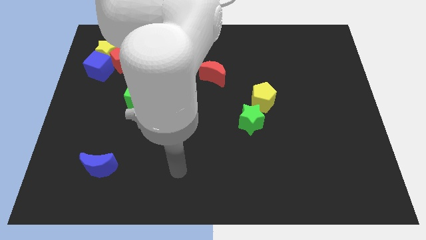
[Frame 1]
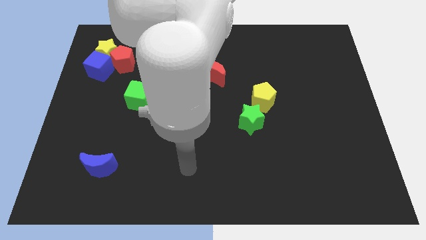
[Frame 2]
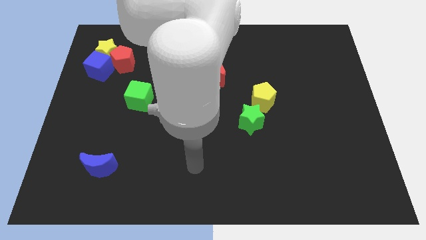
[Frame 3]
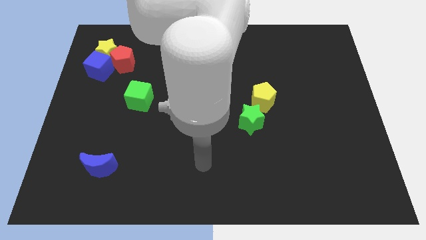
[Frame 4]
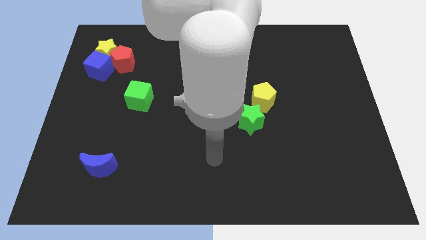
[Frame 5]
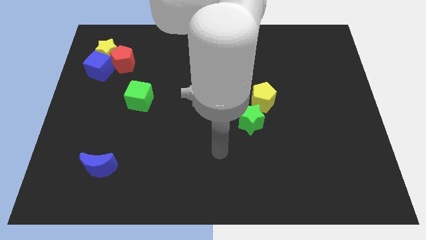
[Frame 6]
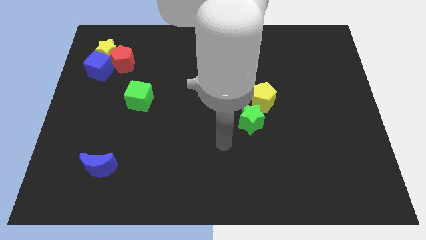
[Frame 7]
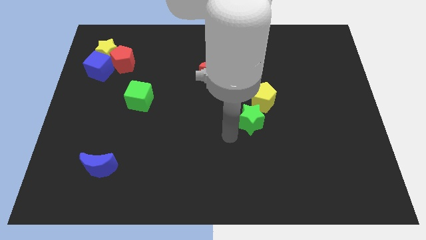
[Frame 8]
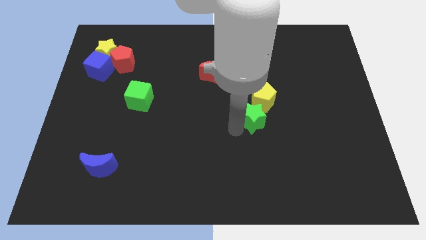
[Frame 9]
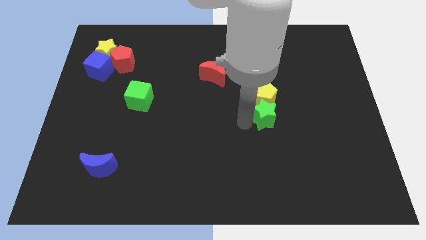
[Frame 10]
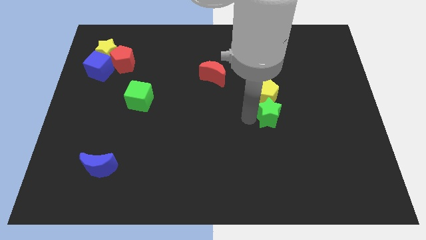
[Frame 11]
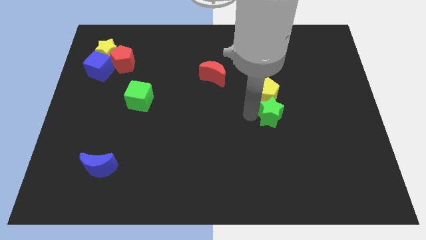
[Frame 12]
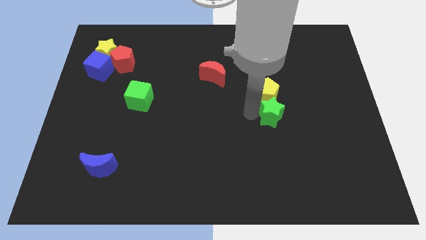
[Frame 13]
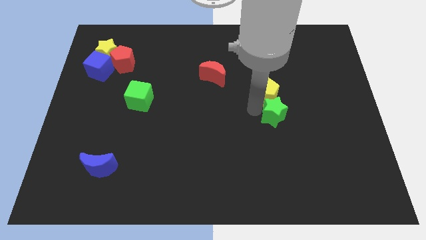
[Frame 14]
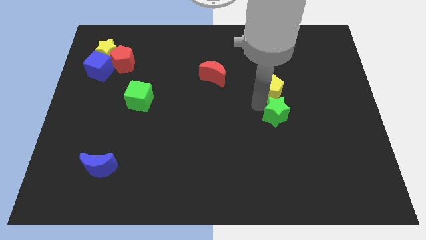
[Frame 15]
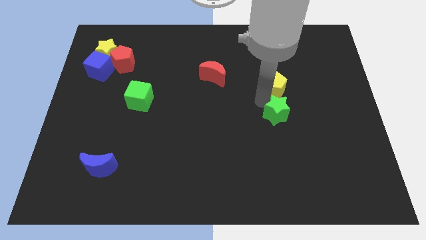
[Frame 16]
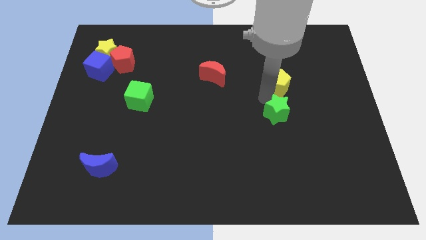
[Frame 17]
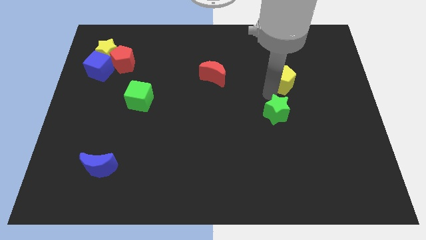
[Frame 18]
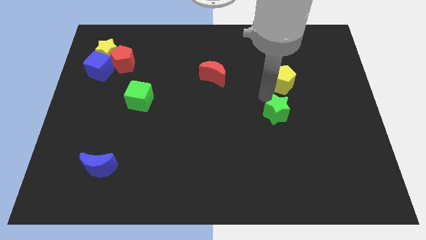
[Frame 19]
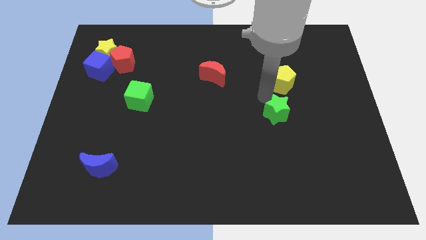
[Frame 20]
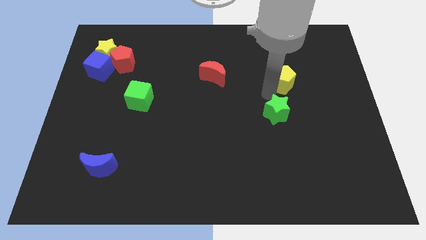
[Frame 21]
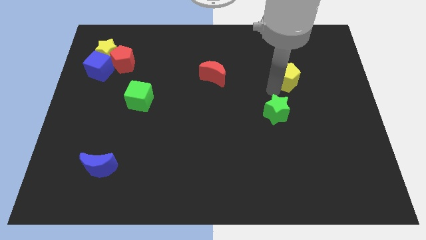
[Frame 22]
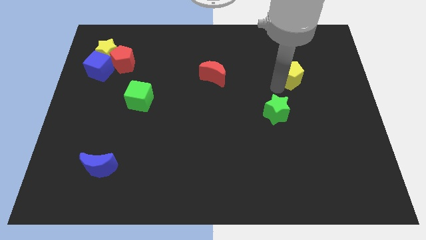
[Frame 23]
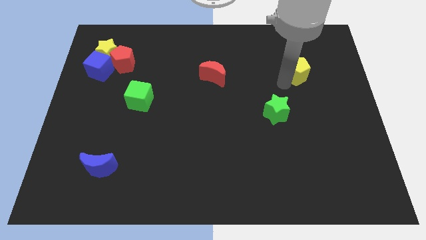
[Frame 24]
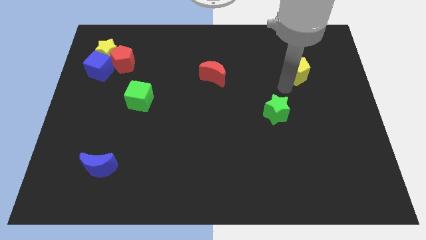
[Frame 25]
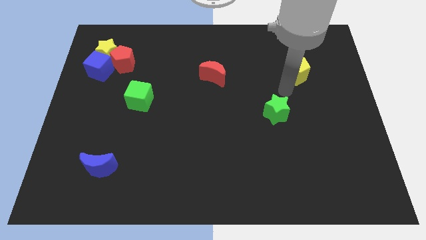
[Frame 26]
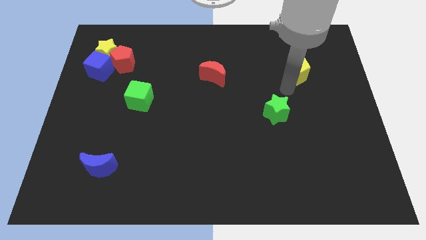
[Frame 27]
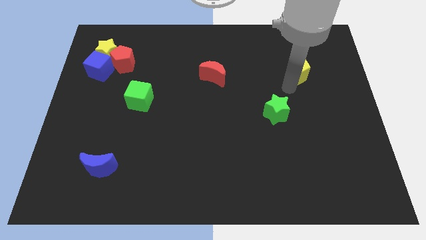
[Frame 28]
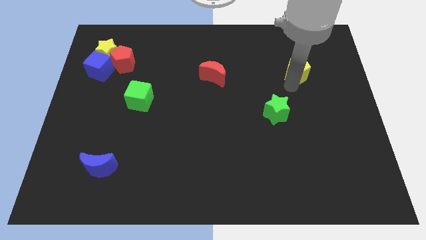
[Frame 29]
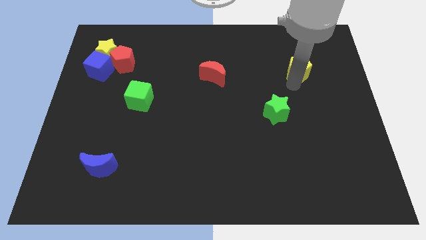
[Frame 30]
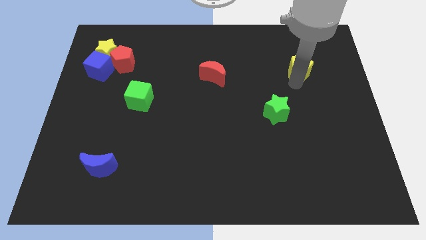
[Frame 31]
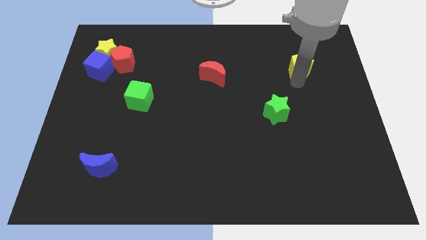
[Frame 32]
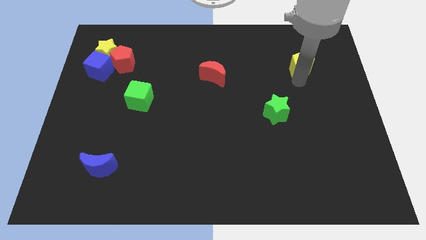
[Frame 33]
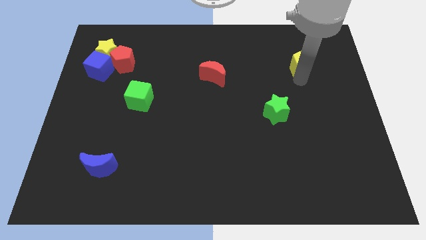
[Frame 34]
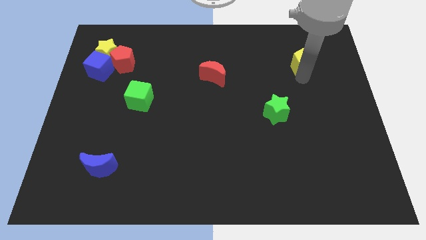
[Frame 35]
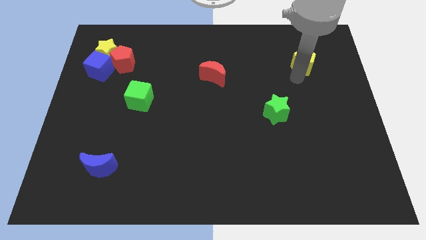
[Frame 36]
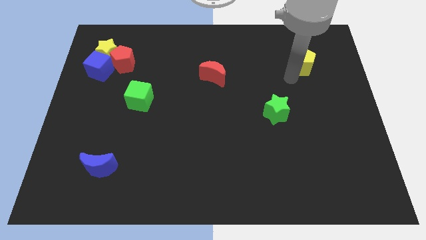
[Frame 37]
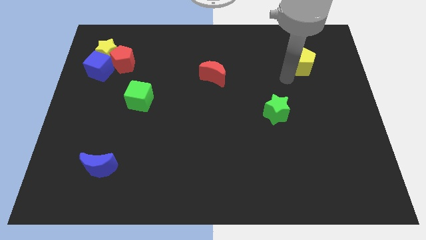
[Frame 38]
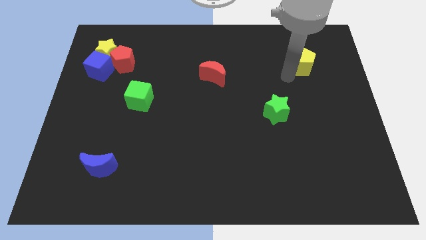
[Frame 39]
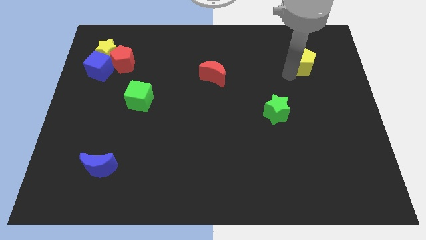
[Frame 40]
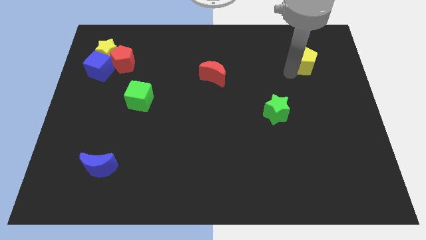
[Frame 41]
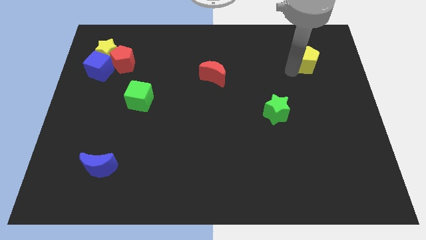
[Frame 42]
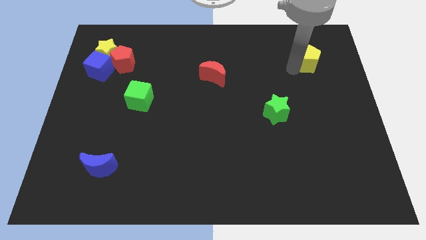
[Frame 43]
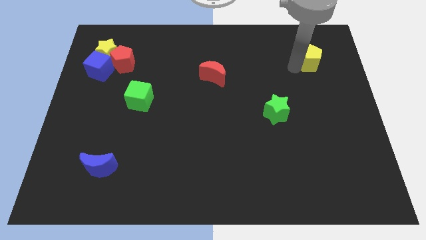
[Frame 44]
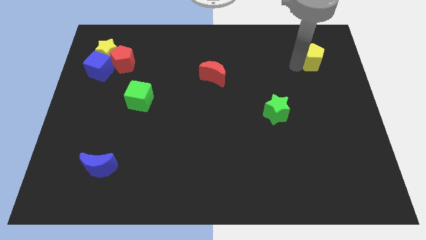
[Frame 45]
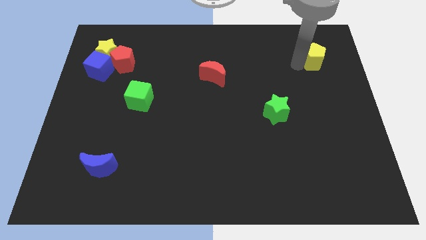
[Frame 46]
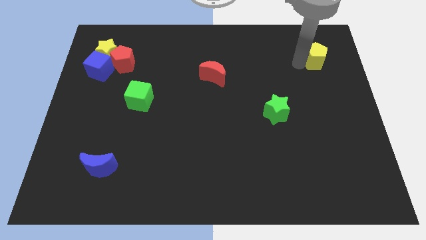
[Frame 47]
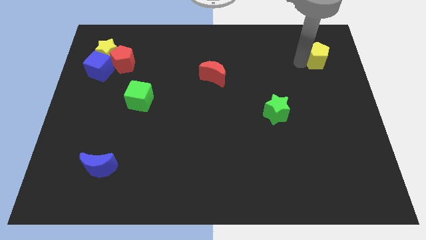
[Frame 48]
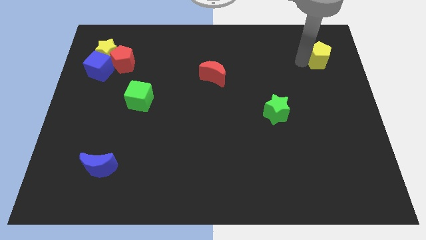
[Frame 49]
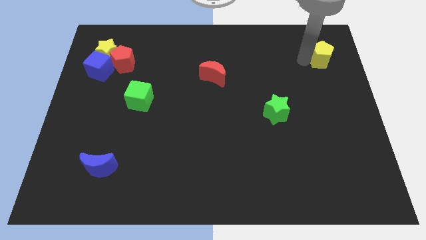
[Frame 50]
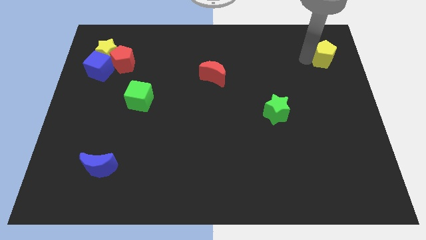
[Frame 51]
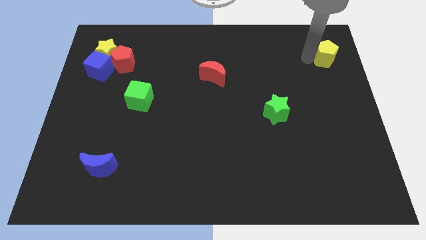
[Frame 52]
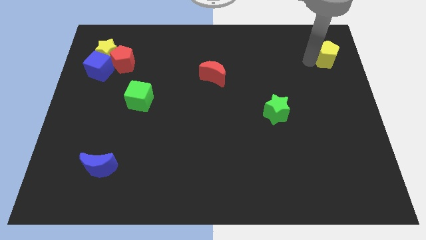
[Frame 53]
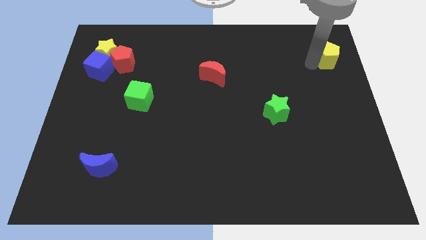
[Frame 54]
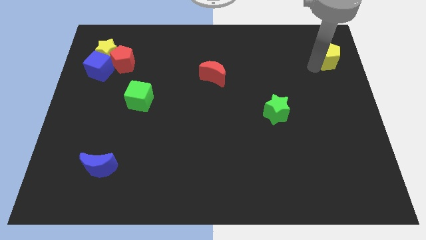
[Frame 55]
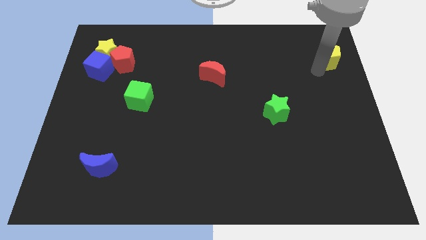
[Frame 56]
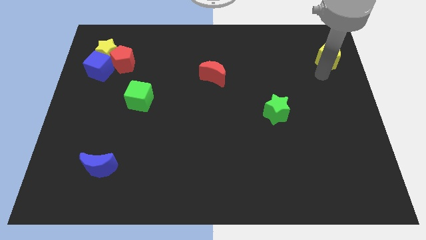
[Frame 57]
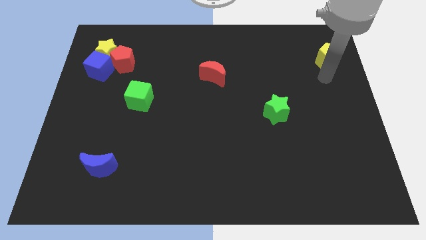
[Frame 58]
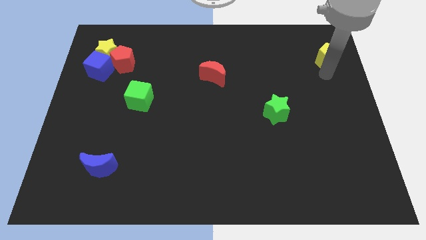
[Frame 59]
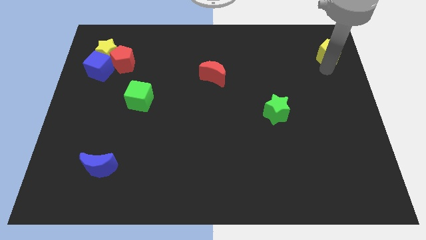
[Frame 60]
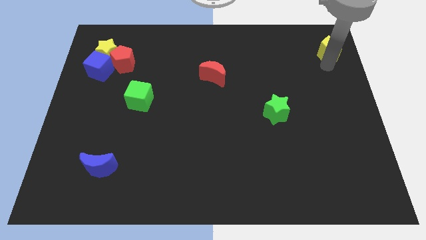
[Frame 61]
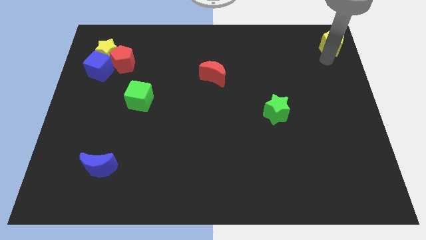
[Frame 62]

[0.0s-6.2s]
slide the yellow pentagon to the top right of the board
